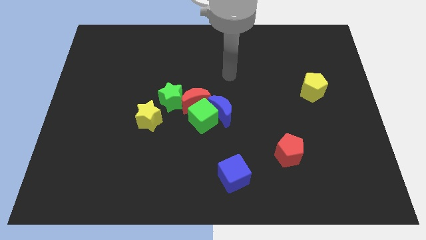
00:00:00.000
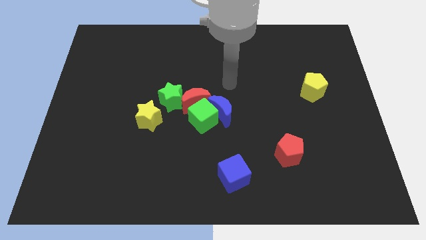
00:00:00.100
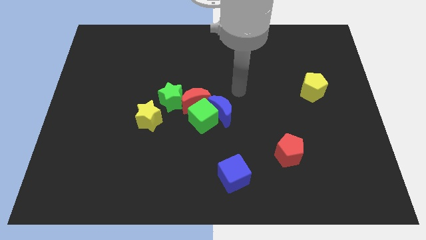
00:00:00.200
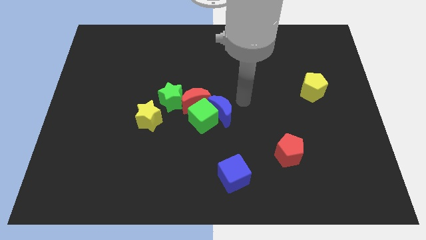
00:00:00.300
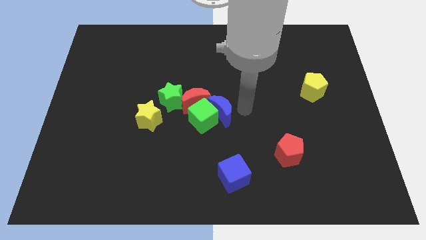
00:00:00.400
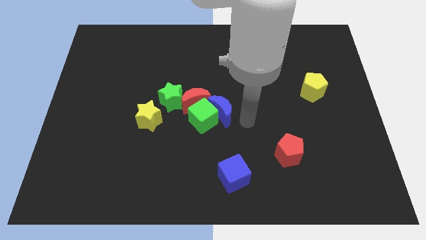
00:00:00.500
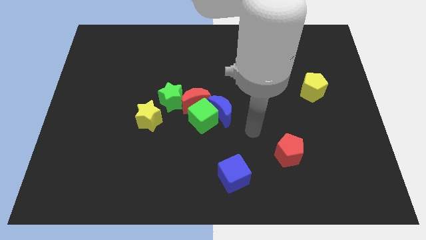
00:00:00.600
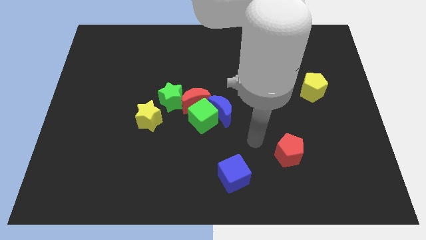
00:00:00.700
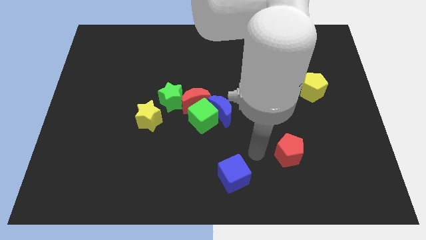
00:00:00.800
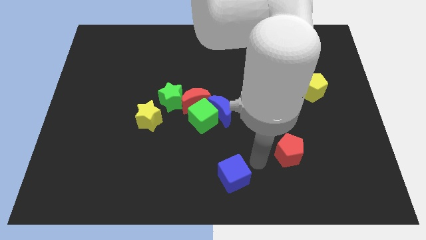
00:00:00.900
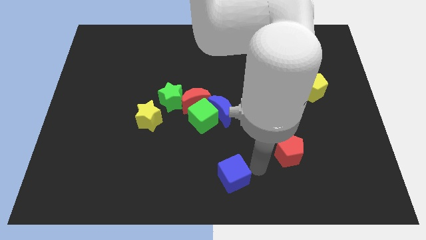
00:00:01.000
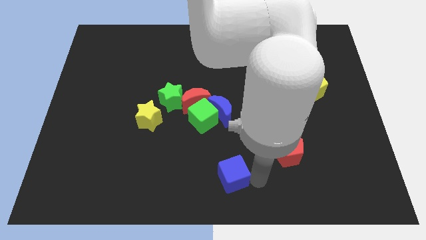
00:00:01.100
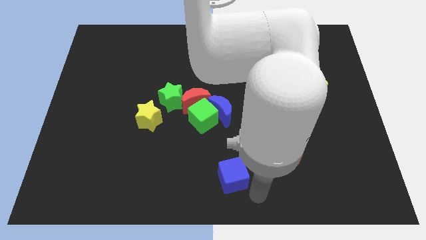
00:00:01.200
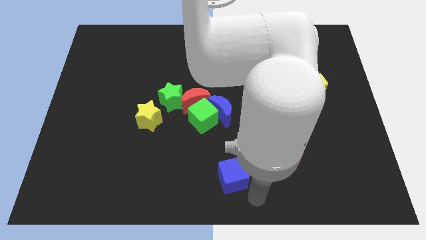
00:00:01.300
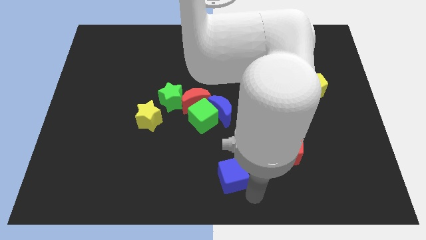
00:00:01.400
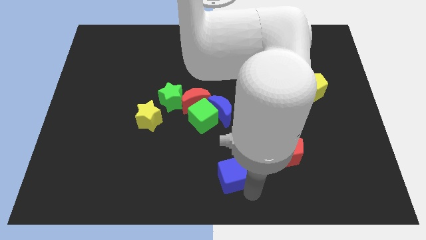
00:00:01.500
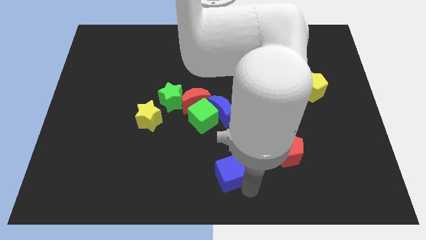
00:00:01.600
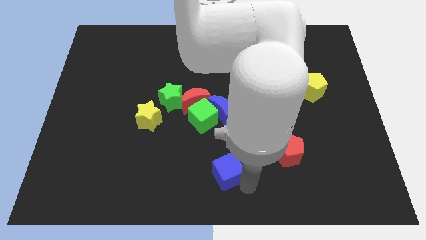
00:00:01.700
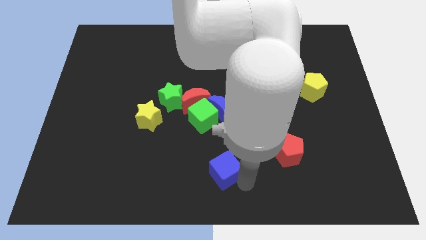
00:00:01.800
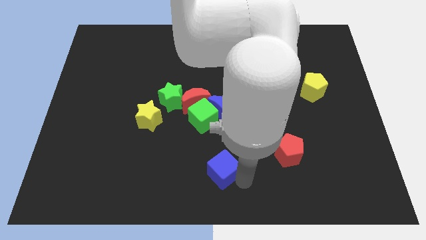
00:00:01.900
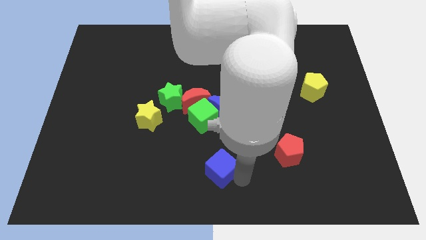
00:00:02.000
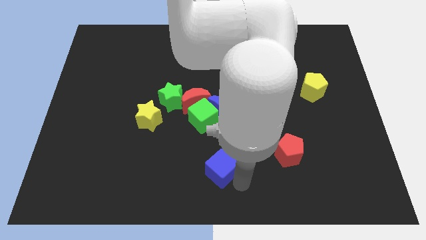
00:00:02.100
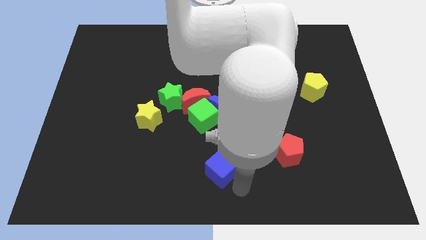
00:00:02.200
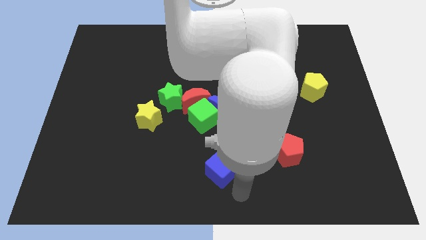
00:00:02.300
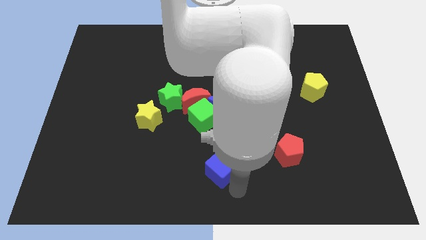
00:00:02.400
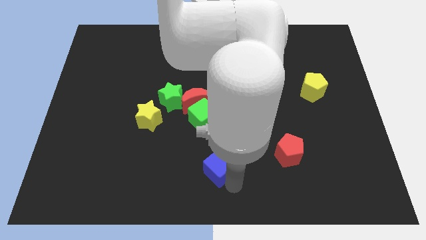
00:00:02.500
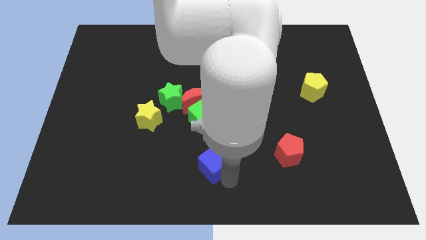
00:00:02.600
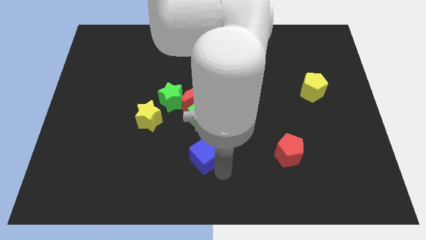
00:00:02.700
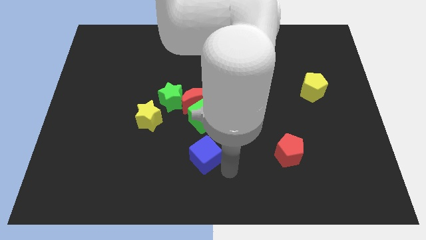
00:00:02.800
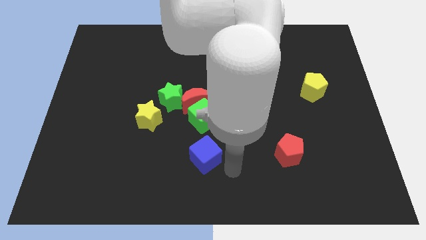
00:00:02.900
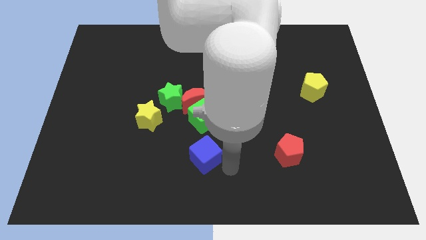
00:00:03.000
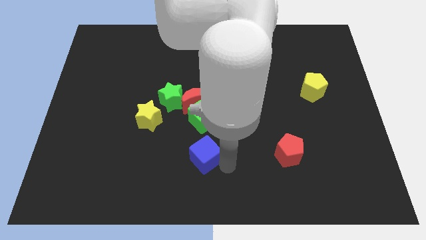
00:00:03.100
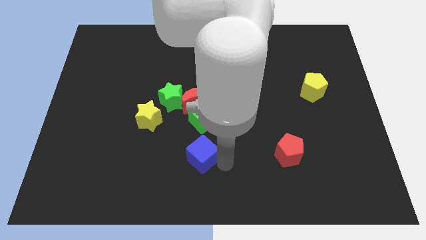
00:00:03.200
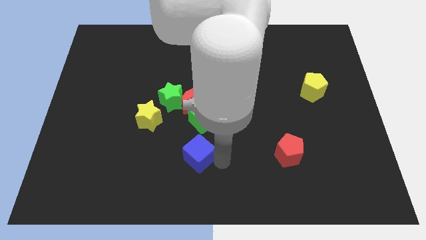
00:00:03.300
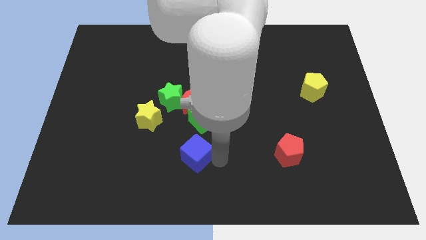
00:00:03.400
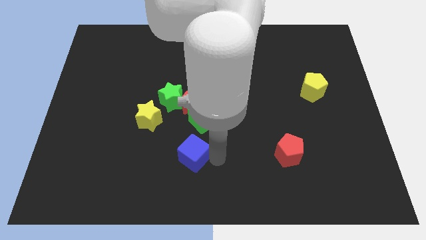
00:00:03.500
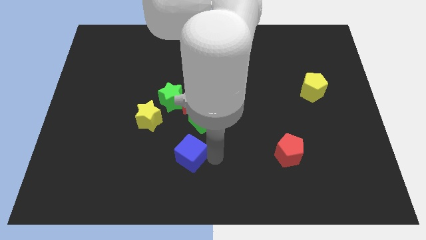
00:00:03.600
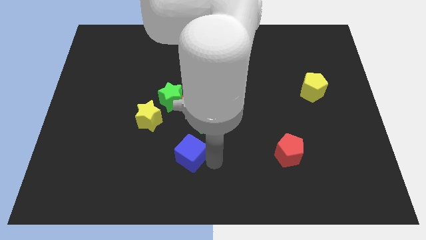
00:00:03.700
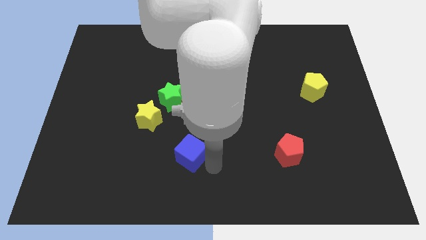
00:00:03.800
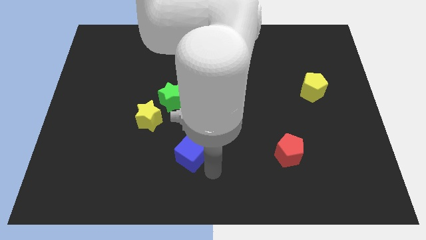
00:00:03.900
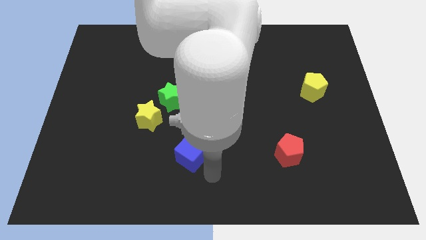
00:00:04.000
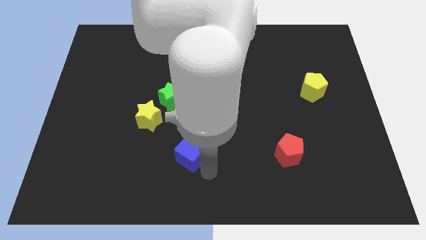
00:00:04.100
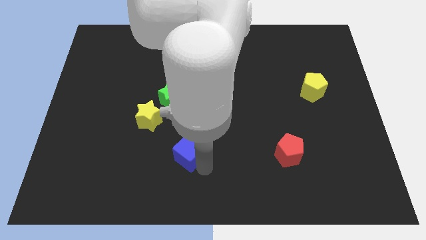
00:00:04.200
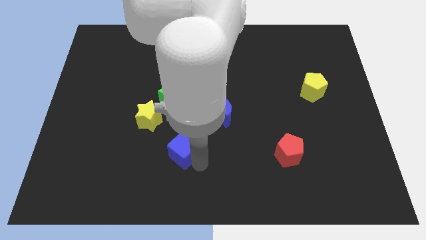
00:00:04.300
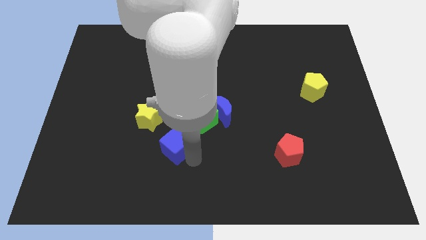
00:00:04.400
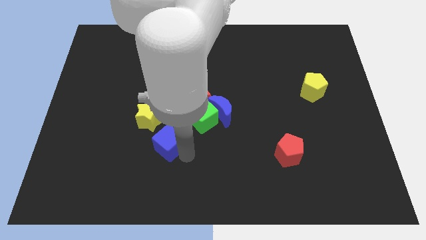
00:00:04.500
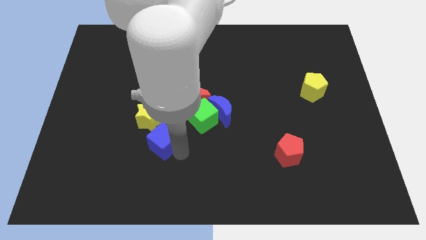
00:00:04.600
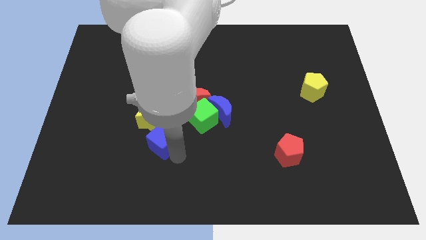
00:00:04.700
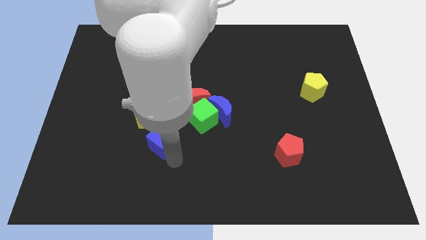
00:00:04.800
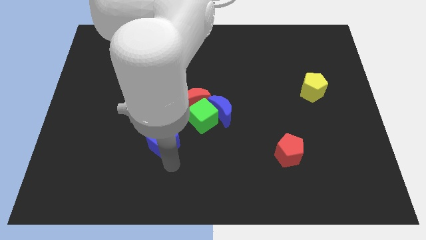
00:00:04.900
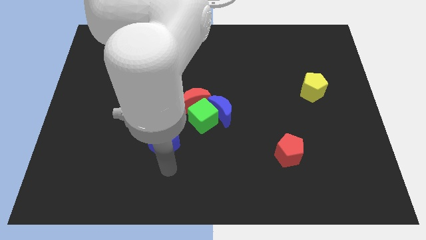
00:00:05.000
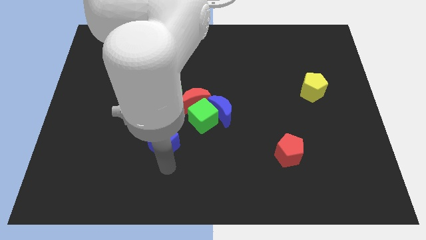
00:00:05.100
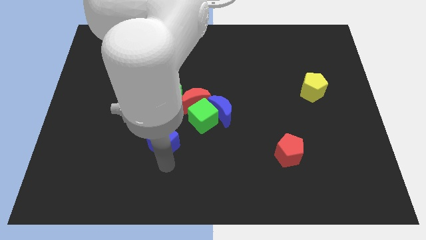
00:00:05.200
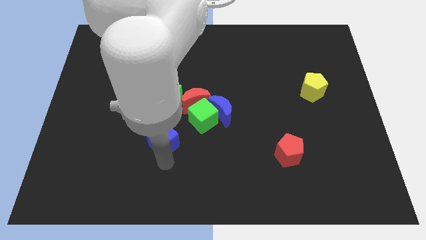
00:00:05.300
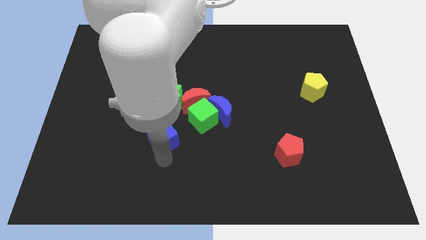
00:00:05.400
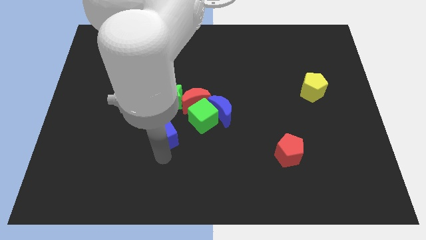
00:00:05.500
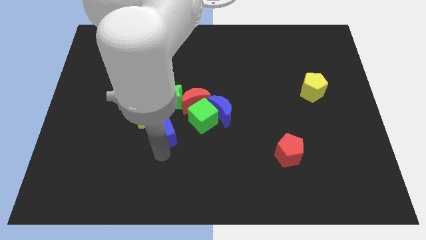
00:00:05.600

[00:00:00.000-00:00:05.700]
slide the blue cube close to the yellow star

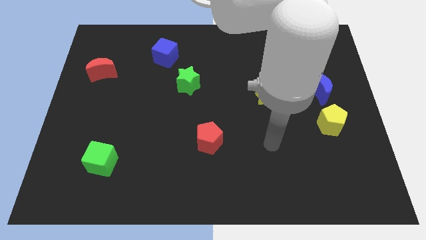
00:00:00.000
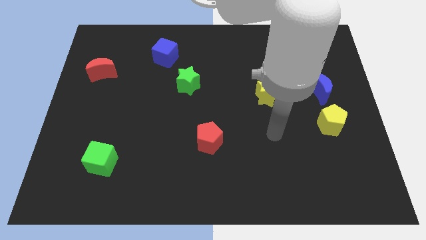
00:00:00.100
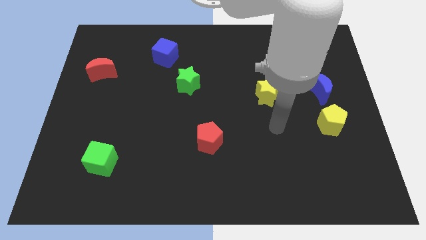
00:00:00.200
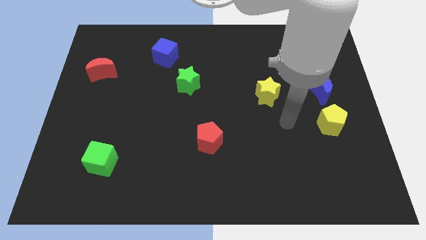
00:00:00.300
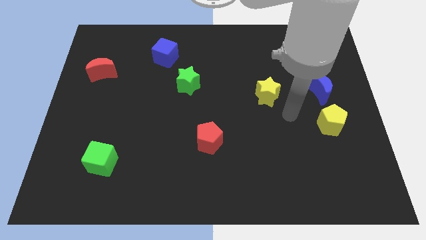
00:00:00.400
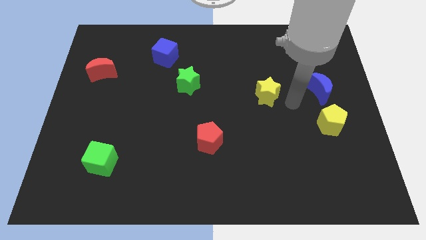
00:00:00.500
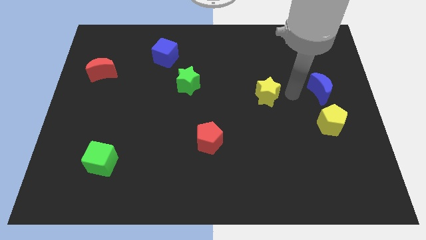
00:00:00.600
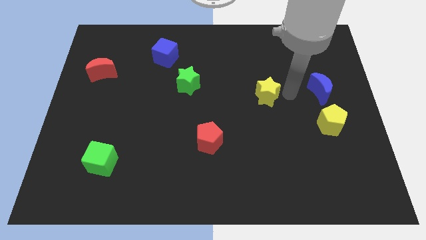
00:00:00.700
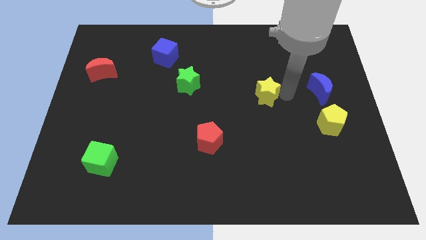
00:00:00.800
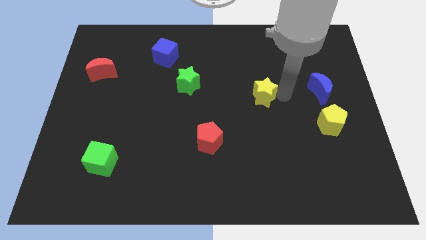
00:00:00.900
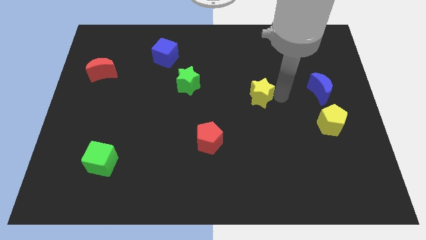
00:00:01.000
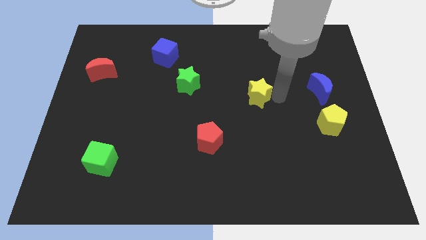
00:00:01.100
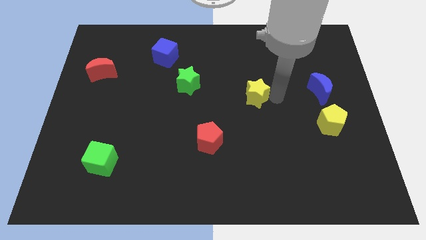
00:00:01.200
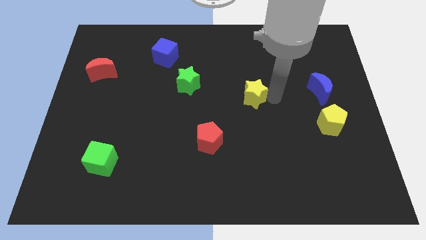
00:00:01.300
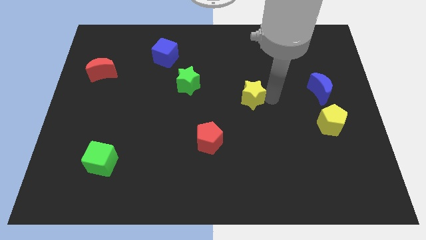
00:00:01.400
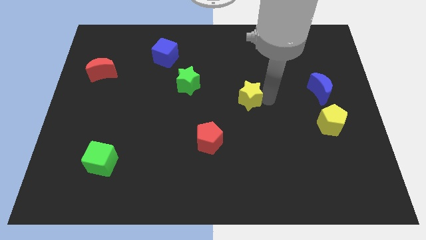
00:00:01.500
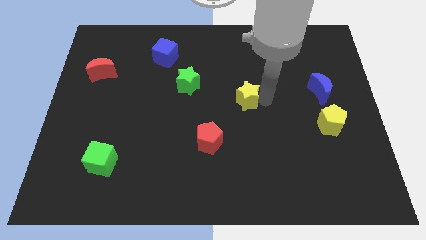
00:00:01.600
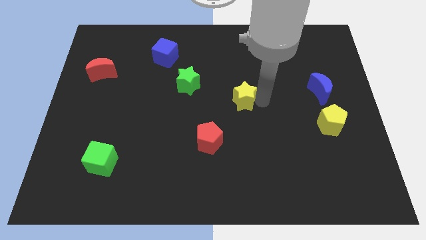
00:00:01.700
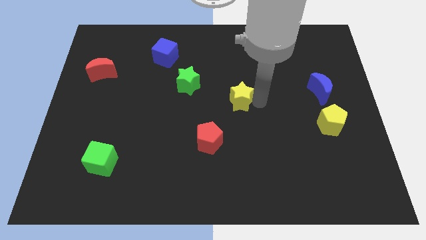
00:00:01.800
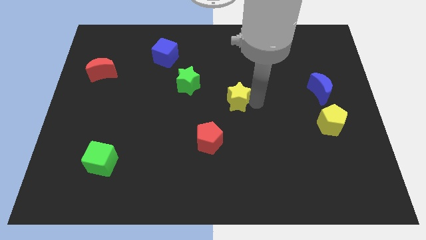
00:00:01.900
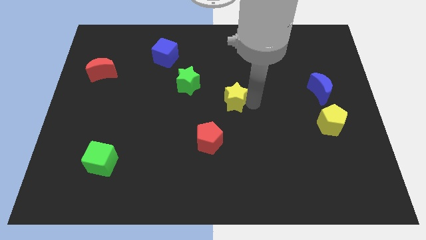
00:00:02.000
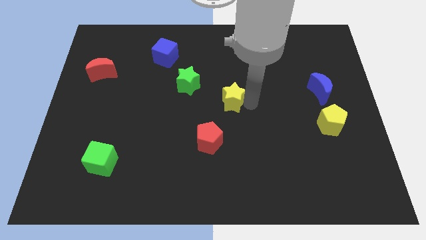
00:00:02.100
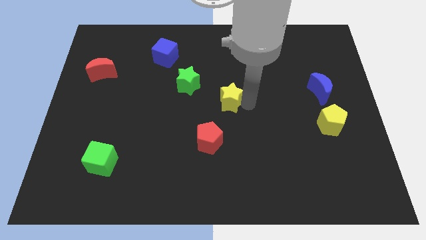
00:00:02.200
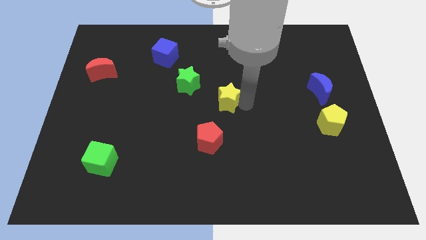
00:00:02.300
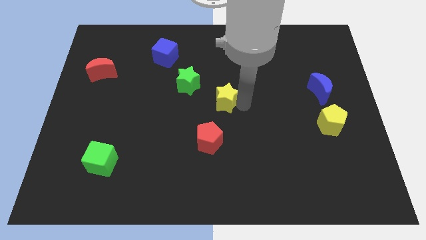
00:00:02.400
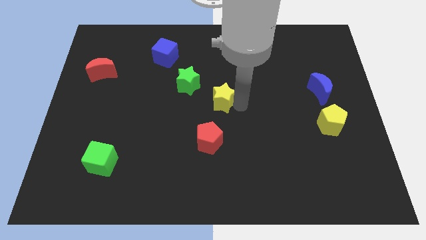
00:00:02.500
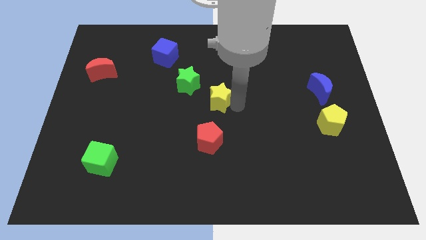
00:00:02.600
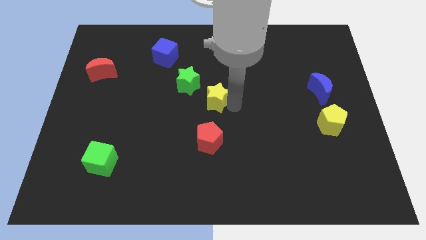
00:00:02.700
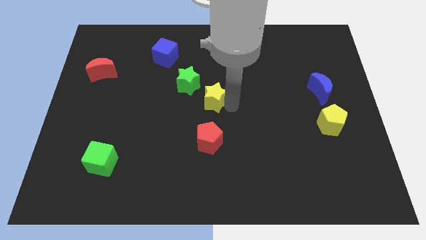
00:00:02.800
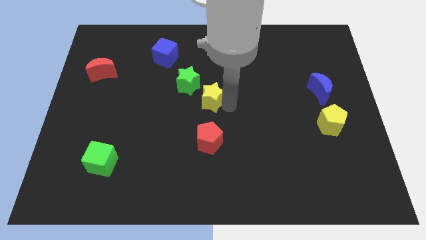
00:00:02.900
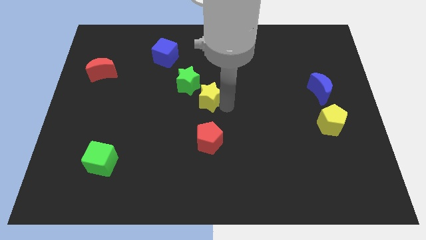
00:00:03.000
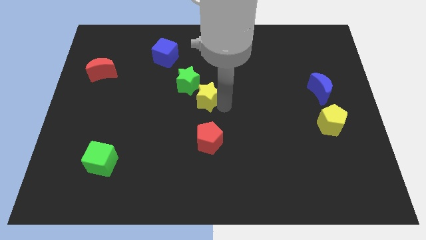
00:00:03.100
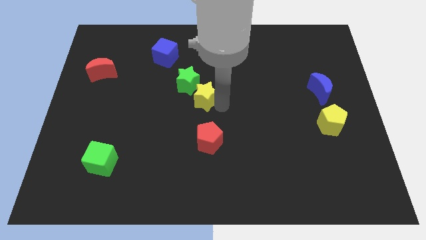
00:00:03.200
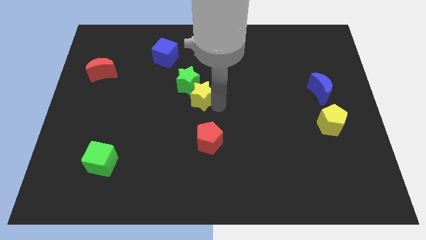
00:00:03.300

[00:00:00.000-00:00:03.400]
put the yellow star close to the green star
